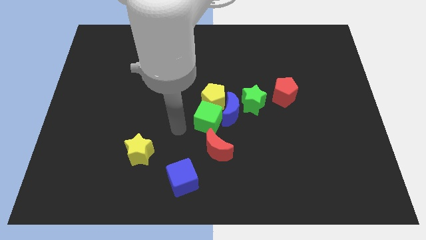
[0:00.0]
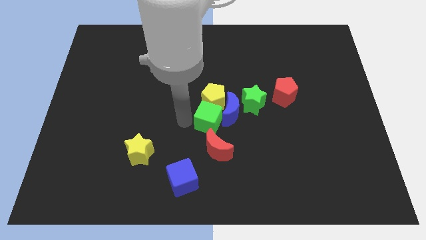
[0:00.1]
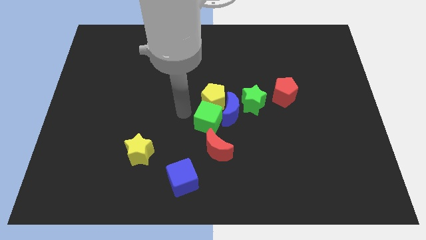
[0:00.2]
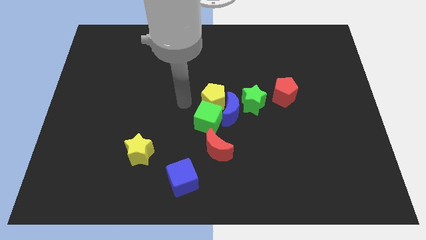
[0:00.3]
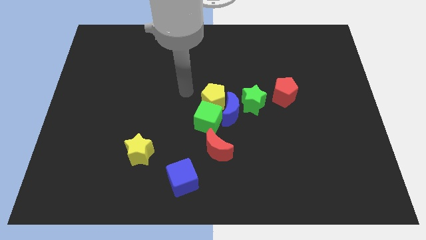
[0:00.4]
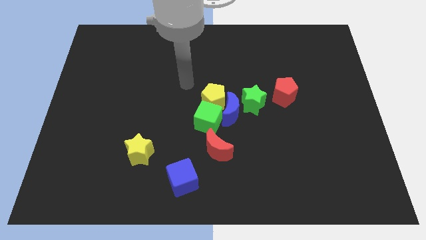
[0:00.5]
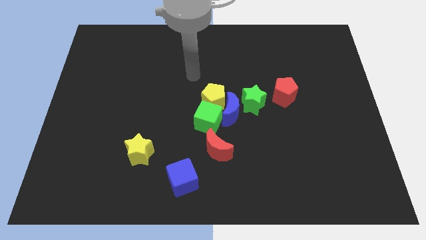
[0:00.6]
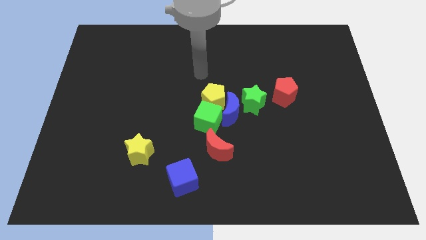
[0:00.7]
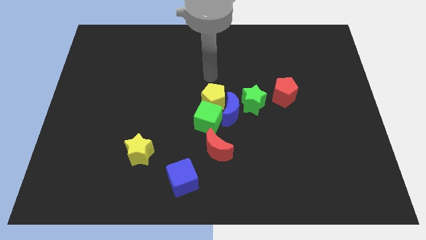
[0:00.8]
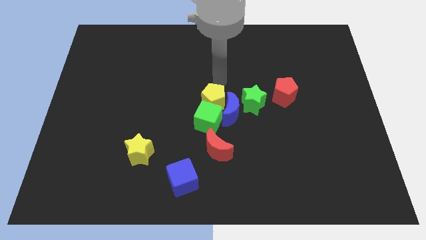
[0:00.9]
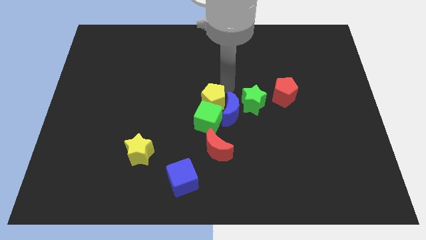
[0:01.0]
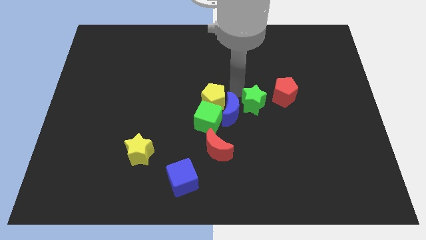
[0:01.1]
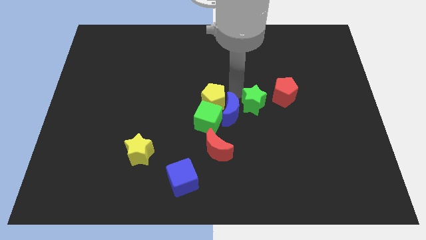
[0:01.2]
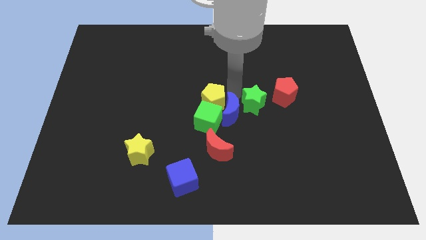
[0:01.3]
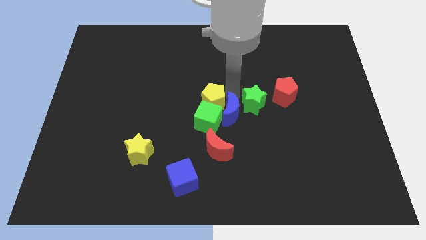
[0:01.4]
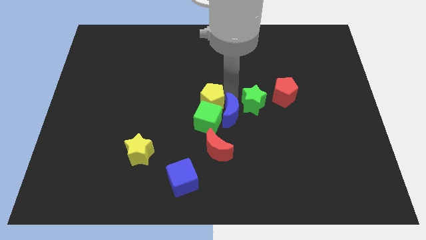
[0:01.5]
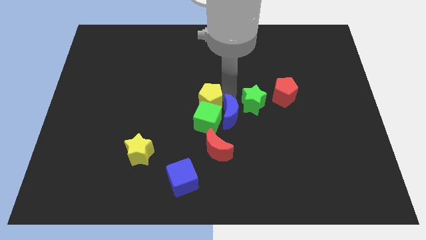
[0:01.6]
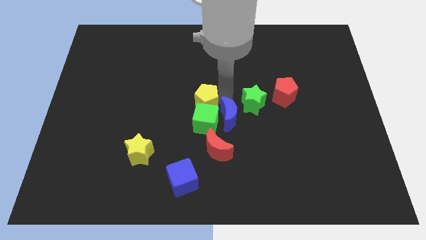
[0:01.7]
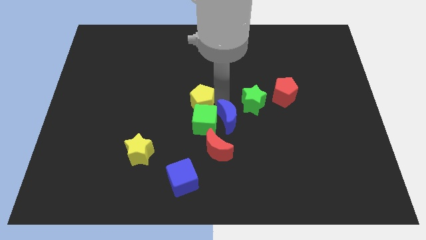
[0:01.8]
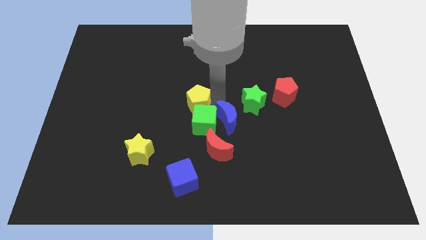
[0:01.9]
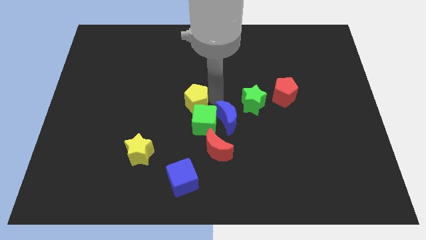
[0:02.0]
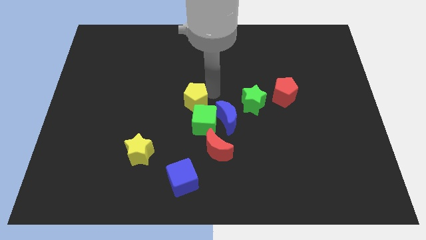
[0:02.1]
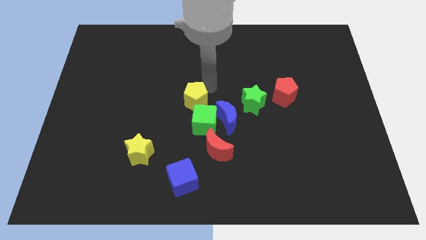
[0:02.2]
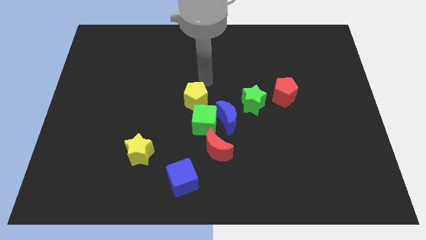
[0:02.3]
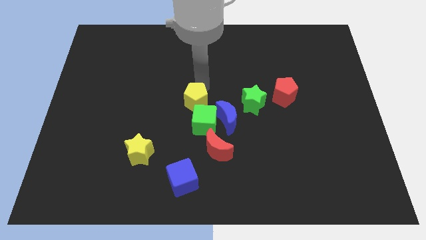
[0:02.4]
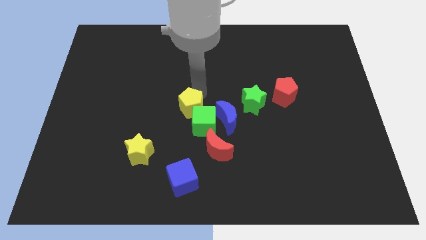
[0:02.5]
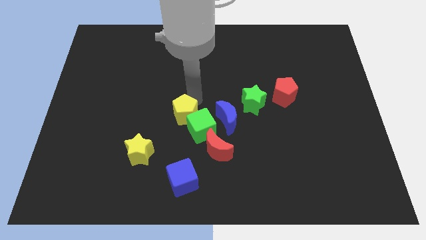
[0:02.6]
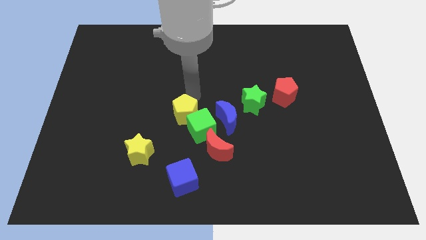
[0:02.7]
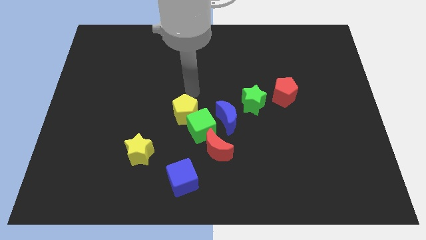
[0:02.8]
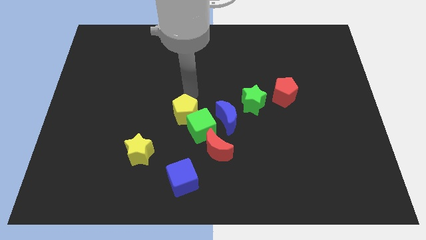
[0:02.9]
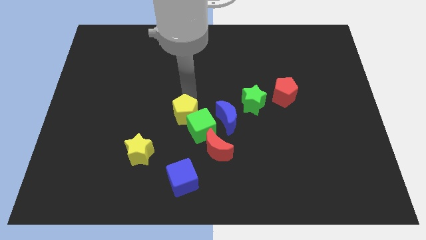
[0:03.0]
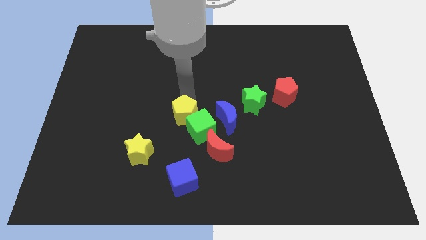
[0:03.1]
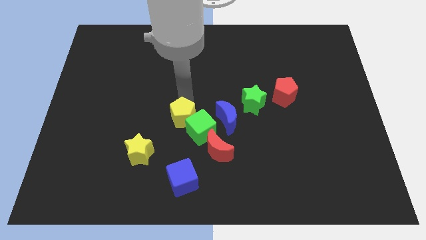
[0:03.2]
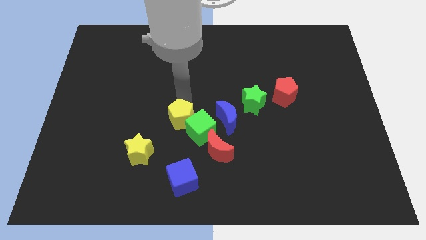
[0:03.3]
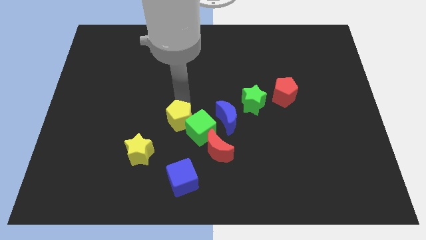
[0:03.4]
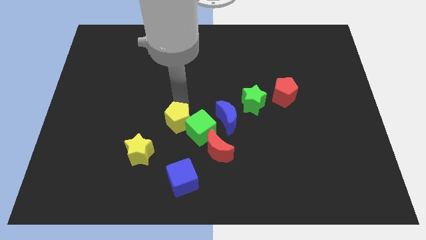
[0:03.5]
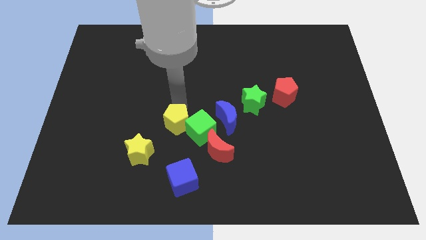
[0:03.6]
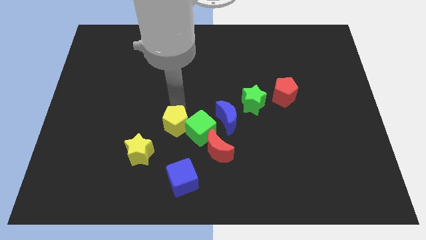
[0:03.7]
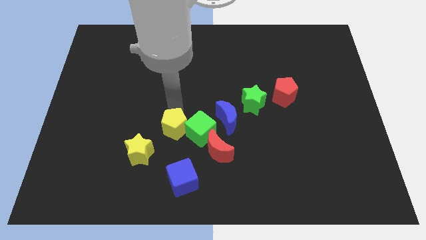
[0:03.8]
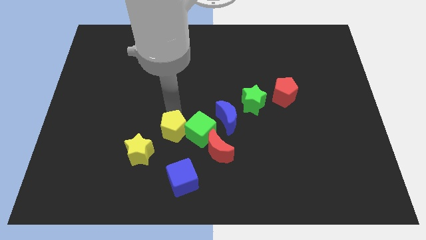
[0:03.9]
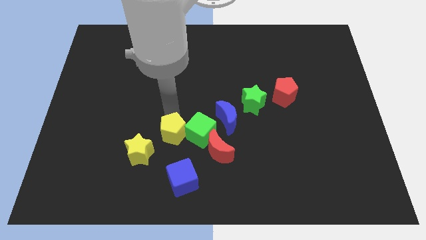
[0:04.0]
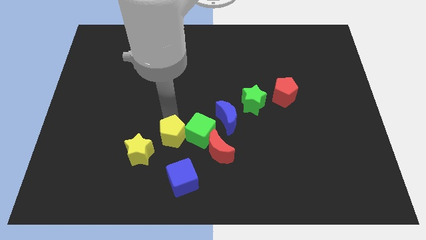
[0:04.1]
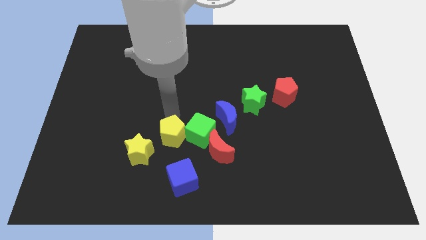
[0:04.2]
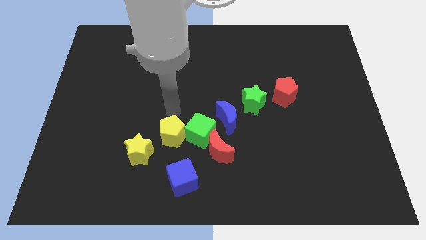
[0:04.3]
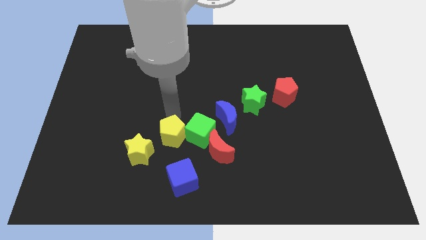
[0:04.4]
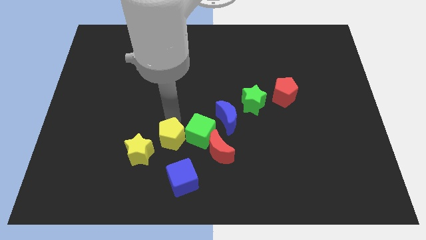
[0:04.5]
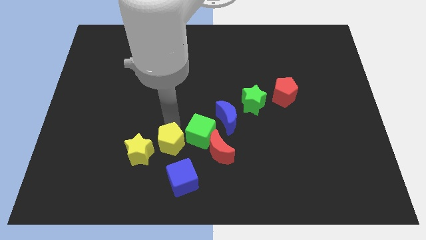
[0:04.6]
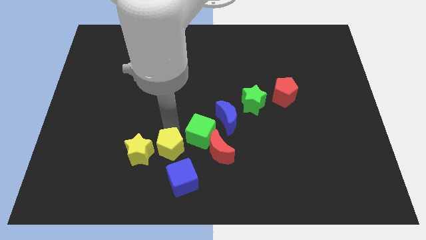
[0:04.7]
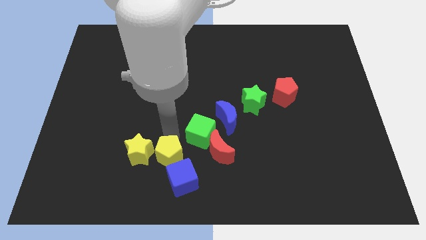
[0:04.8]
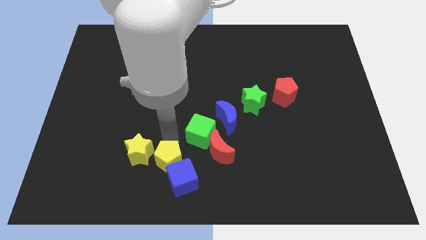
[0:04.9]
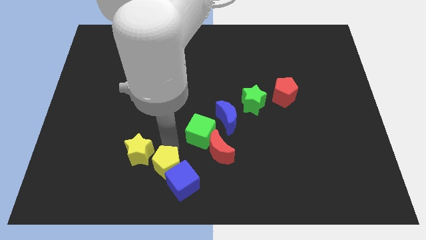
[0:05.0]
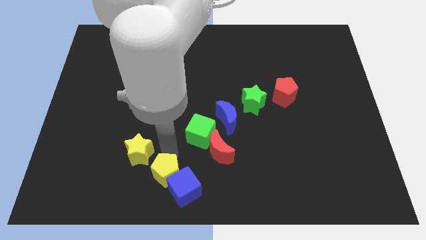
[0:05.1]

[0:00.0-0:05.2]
put the yellow pentagon to the bottom side

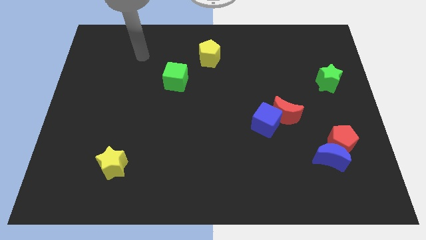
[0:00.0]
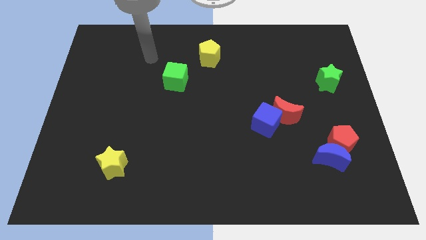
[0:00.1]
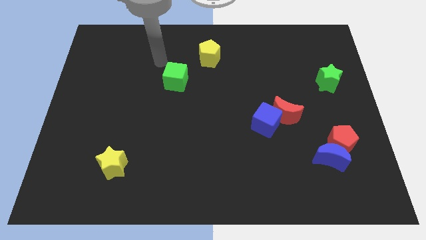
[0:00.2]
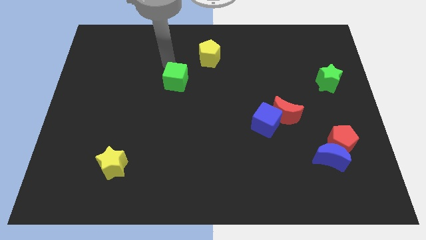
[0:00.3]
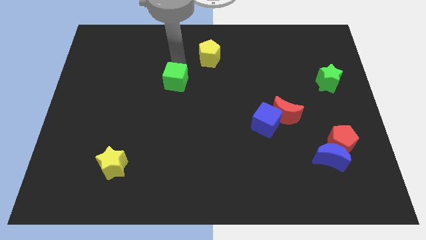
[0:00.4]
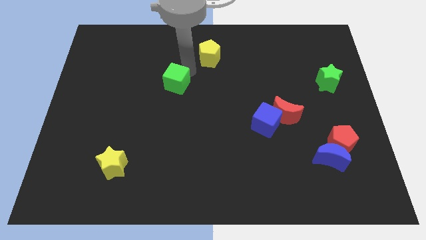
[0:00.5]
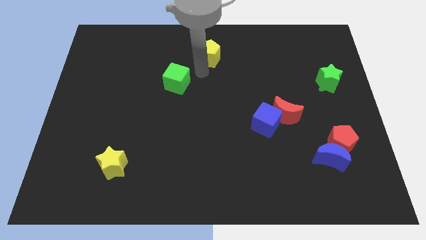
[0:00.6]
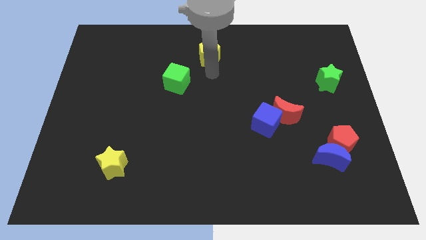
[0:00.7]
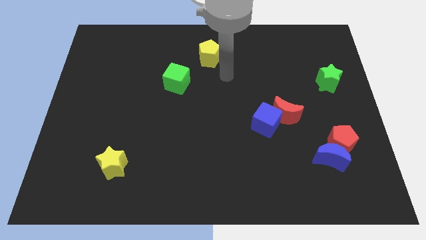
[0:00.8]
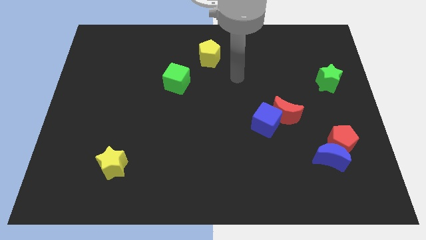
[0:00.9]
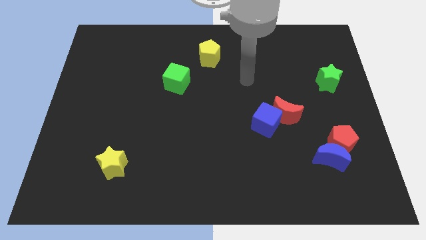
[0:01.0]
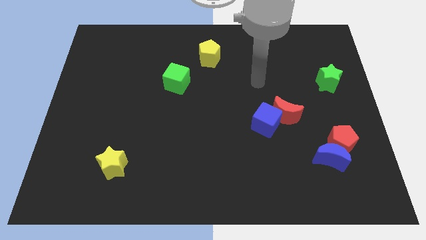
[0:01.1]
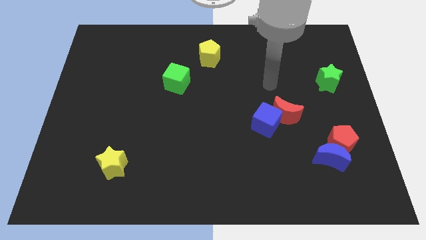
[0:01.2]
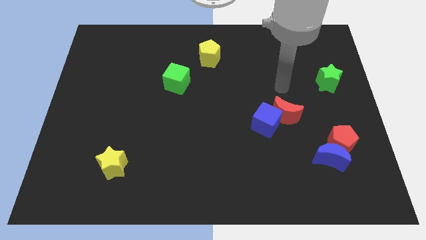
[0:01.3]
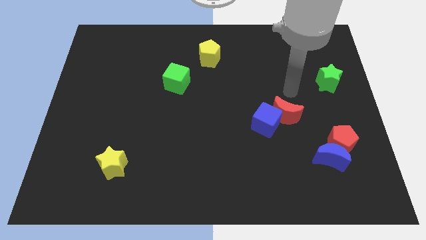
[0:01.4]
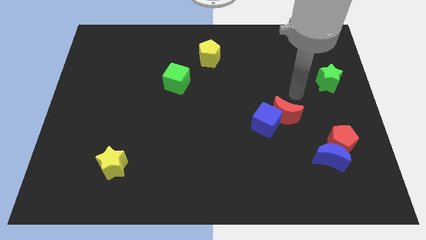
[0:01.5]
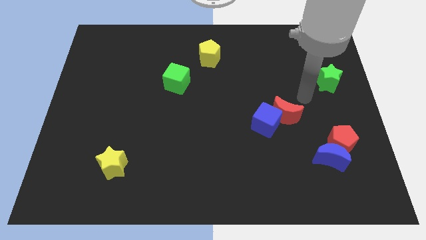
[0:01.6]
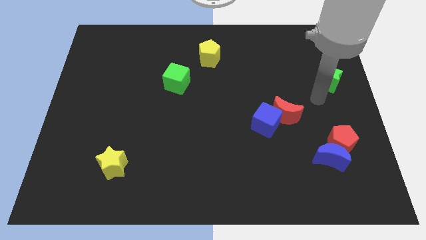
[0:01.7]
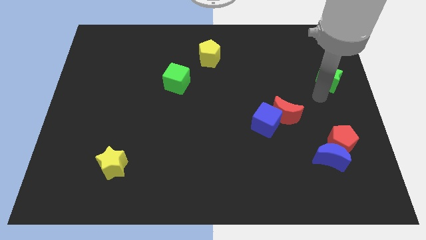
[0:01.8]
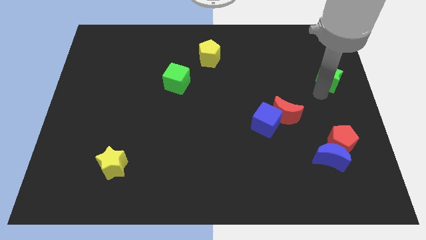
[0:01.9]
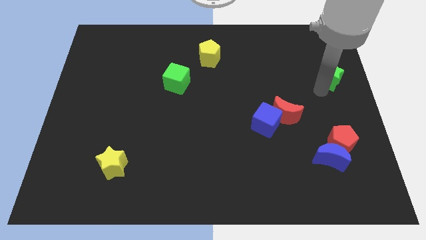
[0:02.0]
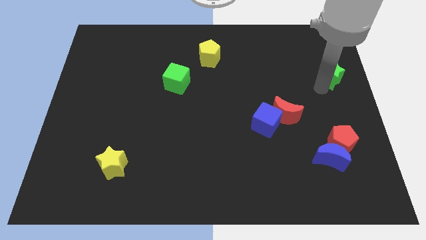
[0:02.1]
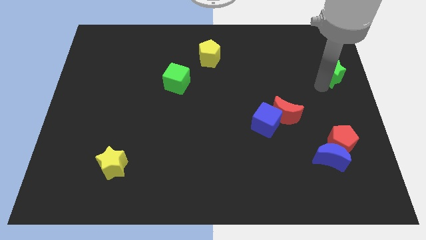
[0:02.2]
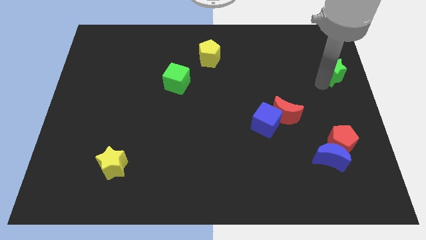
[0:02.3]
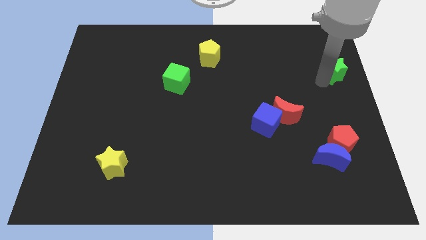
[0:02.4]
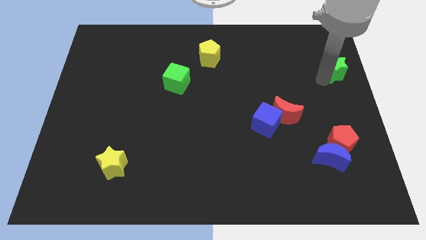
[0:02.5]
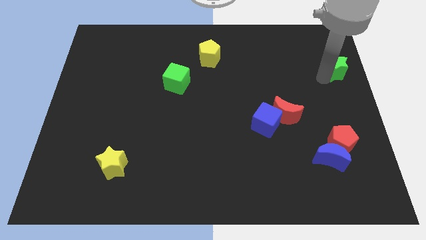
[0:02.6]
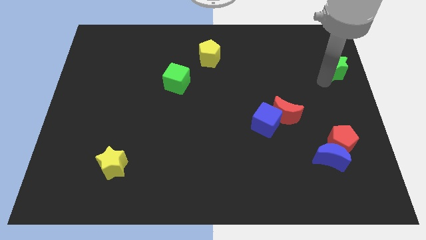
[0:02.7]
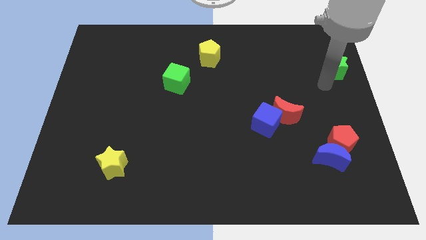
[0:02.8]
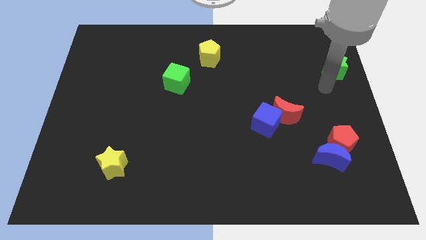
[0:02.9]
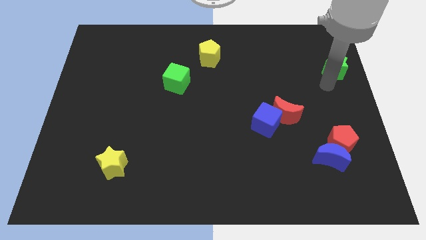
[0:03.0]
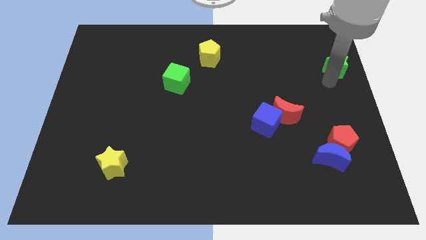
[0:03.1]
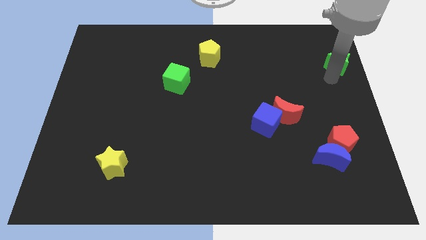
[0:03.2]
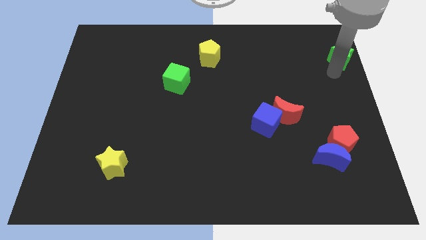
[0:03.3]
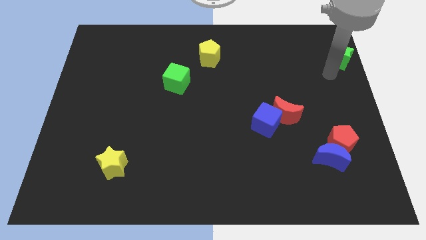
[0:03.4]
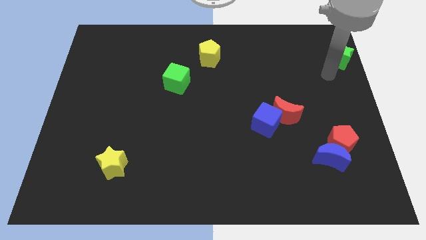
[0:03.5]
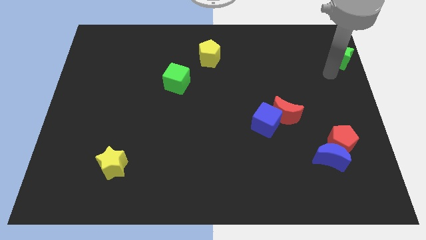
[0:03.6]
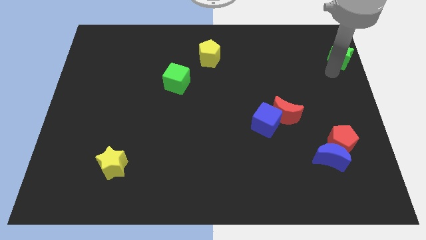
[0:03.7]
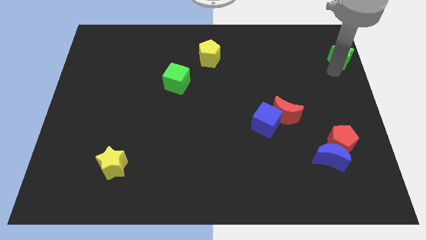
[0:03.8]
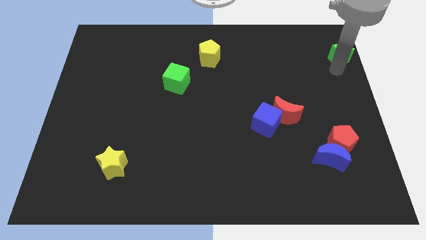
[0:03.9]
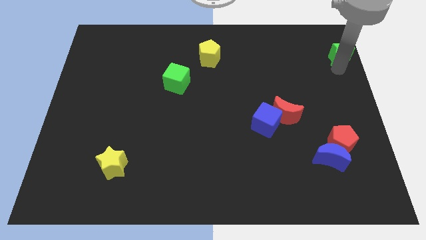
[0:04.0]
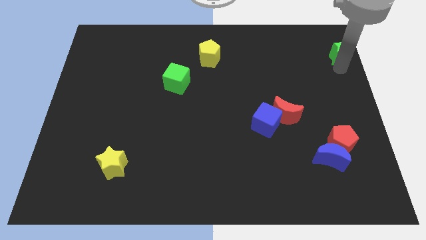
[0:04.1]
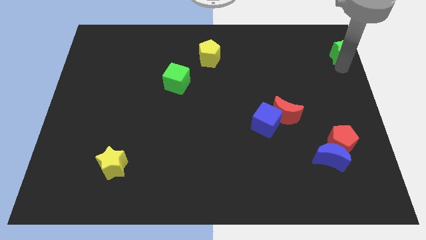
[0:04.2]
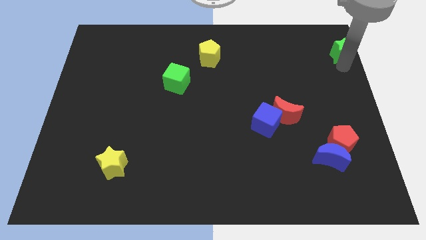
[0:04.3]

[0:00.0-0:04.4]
slide the green star to the top right corner
